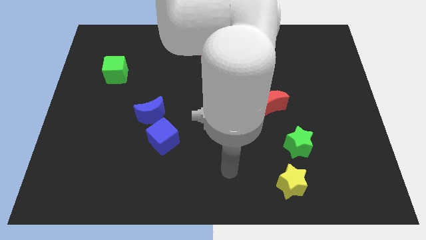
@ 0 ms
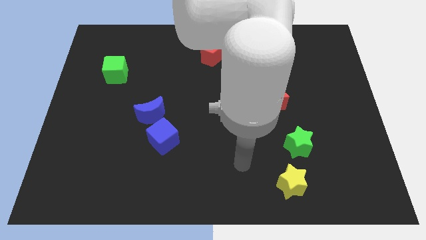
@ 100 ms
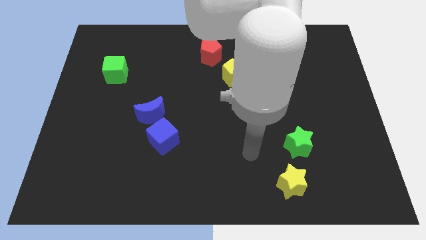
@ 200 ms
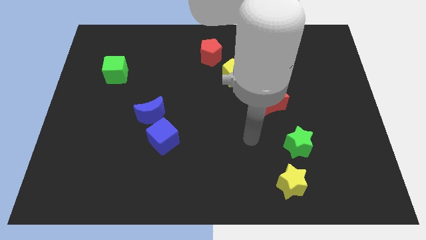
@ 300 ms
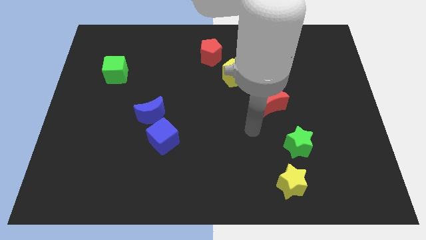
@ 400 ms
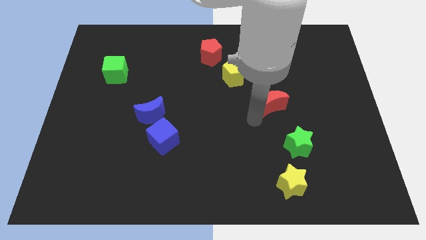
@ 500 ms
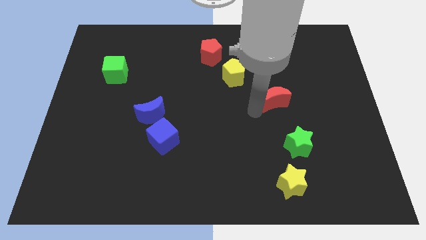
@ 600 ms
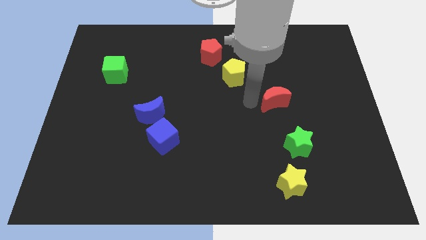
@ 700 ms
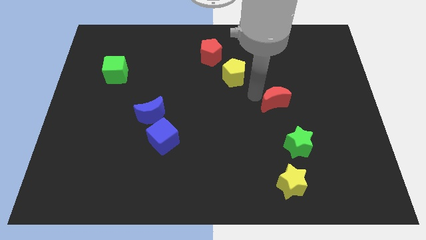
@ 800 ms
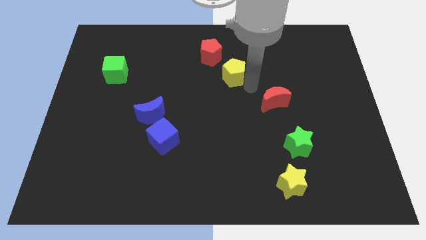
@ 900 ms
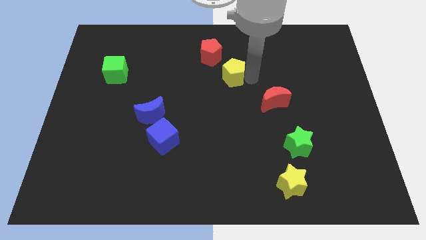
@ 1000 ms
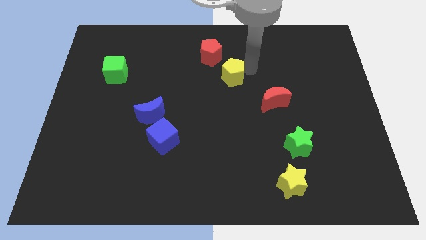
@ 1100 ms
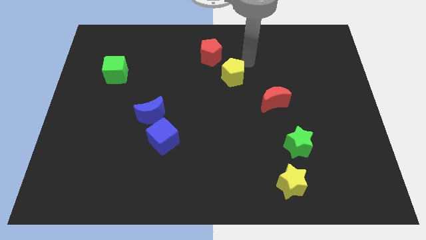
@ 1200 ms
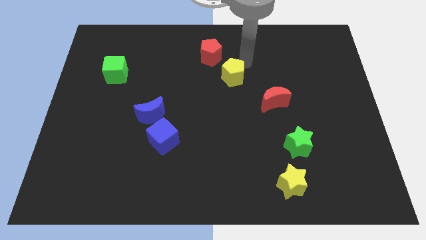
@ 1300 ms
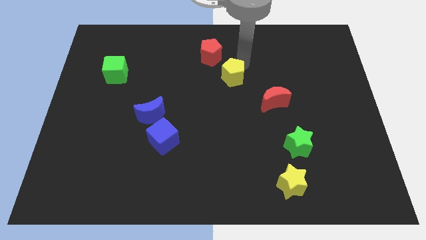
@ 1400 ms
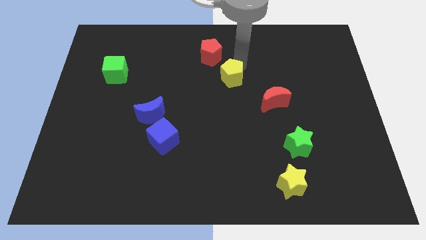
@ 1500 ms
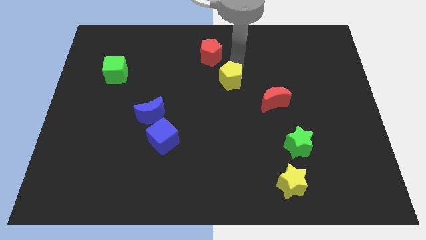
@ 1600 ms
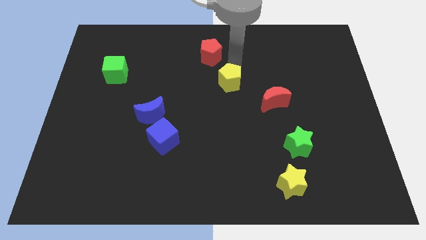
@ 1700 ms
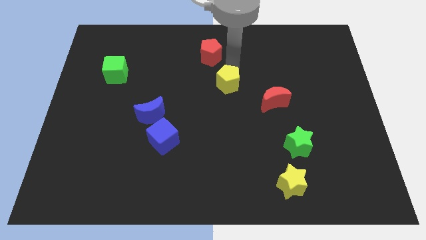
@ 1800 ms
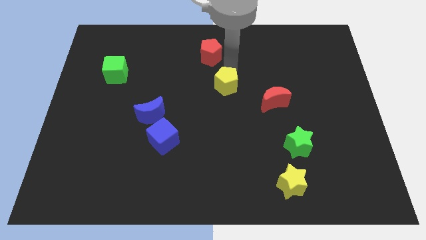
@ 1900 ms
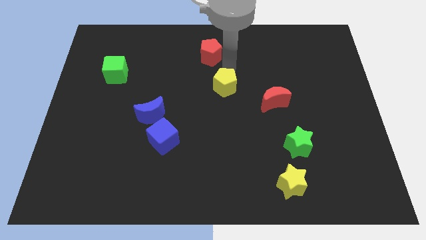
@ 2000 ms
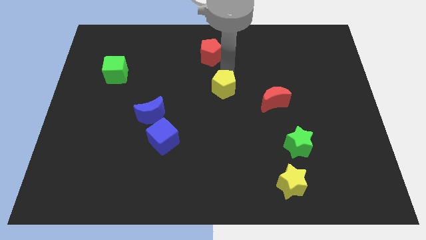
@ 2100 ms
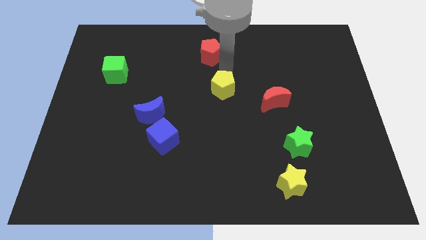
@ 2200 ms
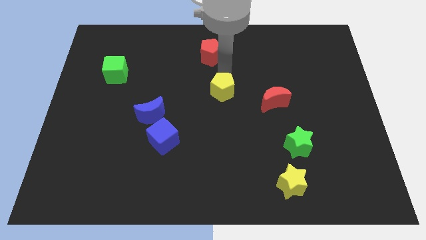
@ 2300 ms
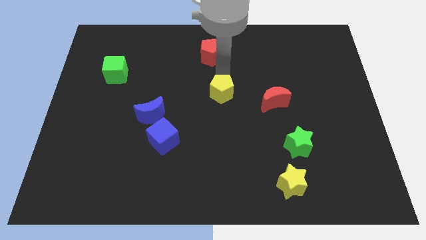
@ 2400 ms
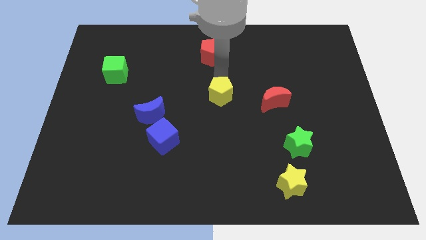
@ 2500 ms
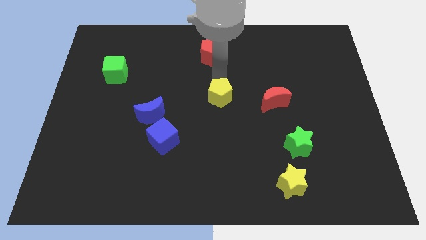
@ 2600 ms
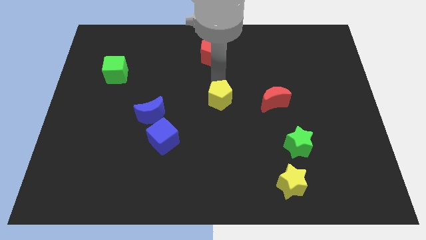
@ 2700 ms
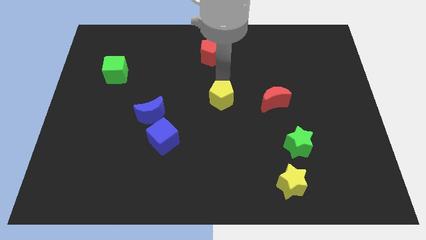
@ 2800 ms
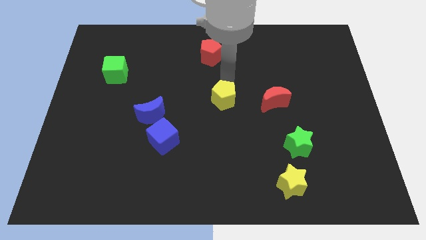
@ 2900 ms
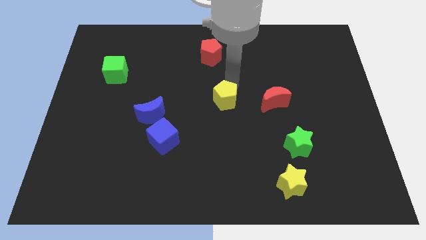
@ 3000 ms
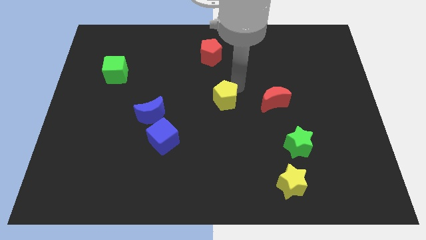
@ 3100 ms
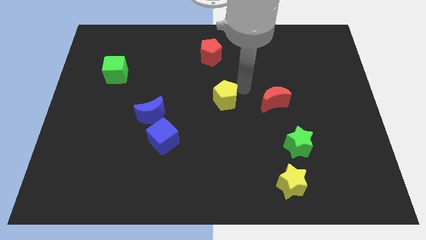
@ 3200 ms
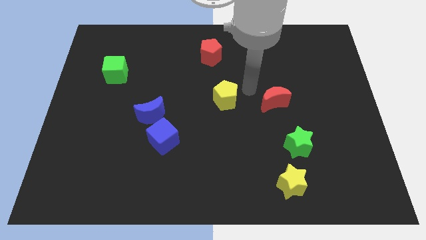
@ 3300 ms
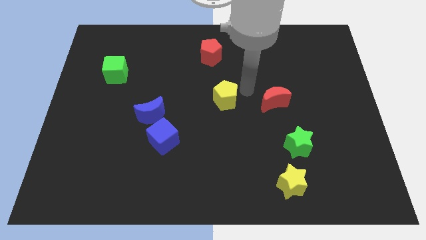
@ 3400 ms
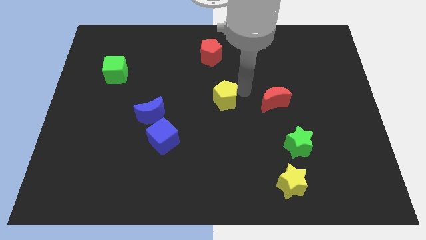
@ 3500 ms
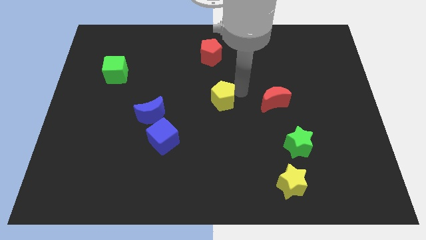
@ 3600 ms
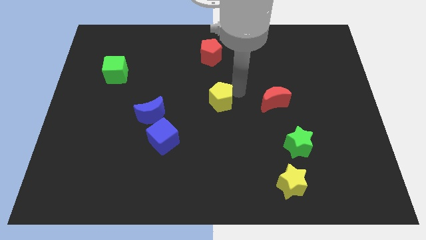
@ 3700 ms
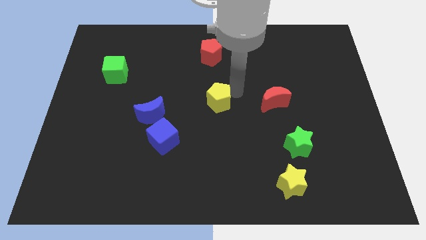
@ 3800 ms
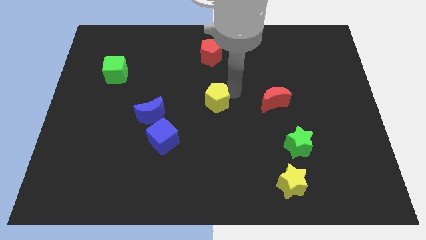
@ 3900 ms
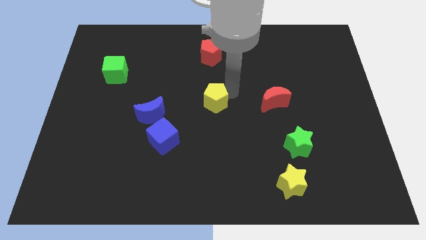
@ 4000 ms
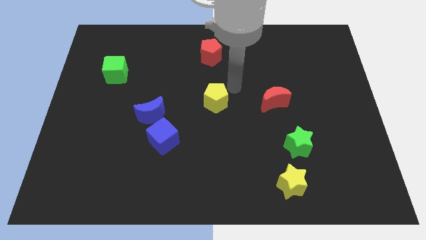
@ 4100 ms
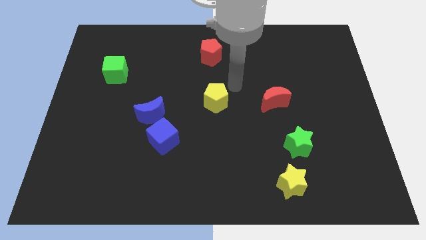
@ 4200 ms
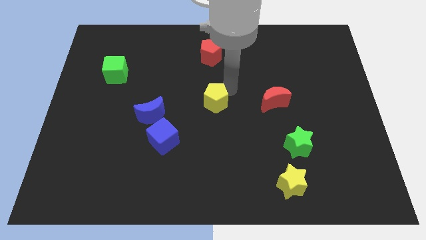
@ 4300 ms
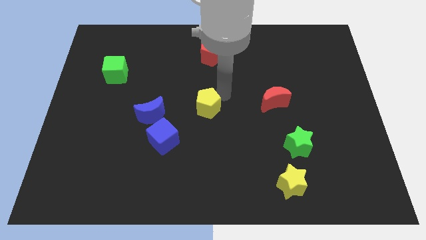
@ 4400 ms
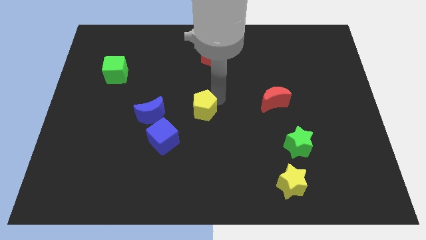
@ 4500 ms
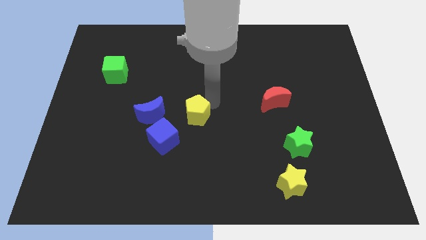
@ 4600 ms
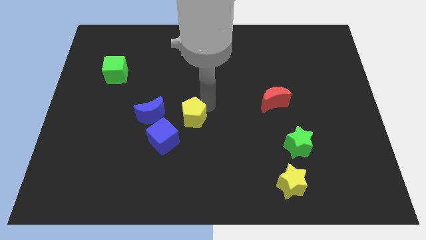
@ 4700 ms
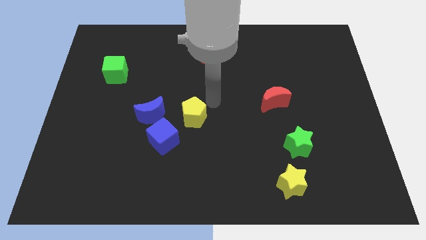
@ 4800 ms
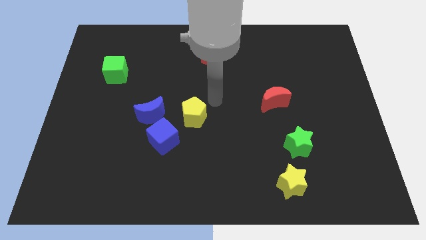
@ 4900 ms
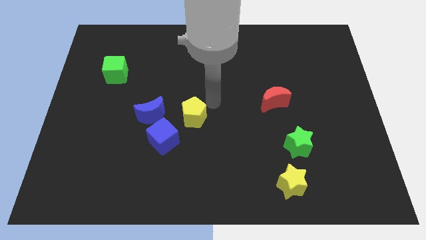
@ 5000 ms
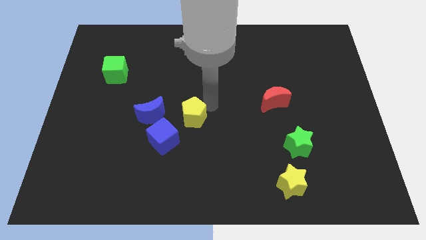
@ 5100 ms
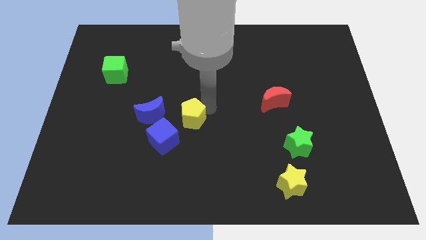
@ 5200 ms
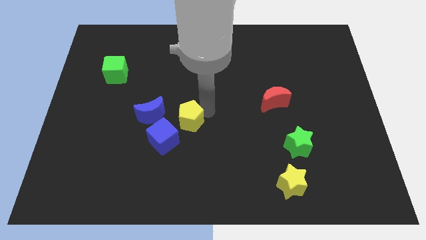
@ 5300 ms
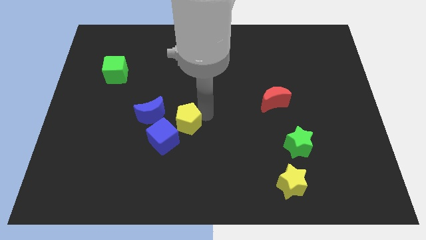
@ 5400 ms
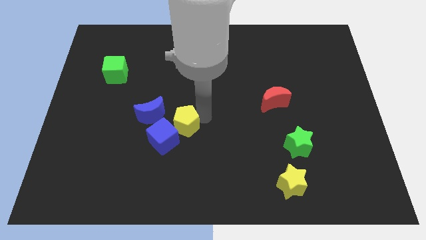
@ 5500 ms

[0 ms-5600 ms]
push the yellow pentagon close to the blue cube

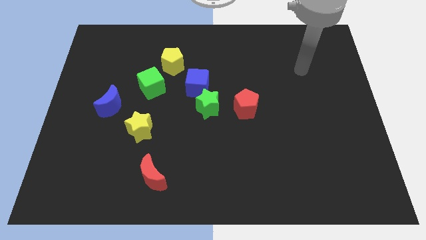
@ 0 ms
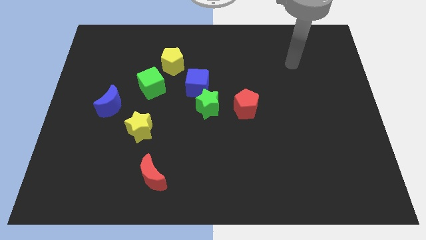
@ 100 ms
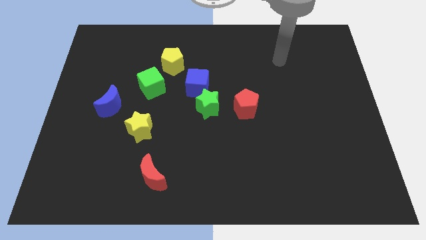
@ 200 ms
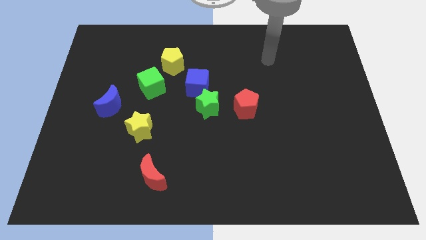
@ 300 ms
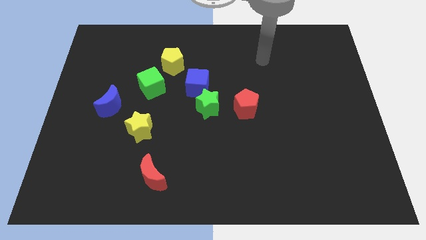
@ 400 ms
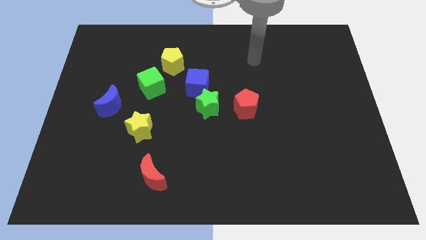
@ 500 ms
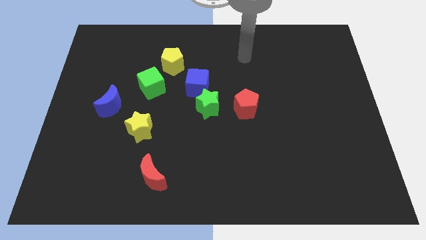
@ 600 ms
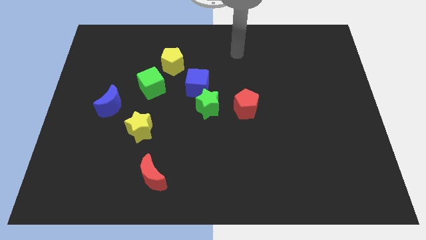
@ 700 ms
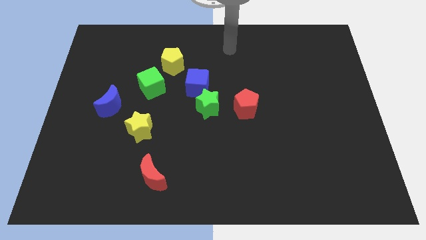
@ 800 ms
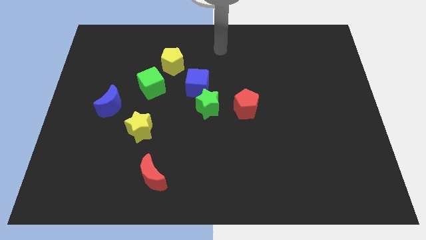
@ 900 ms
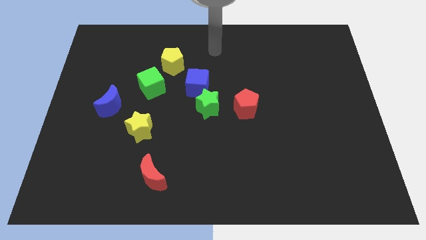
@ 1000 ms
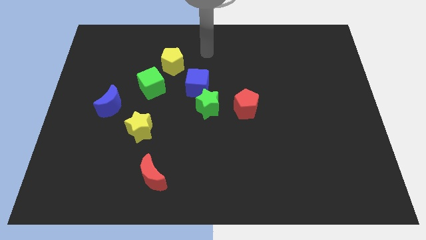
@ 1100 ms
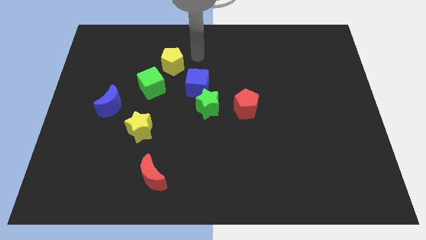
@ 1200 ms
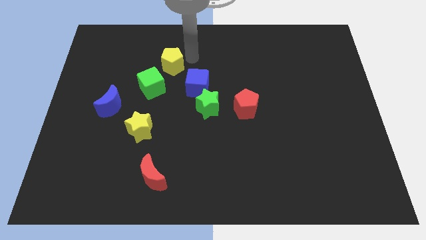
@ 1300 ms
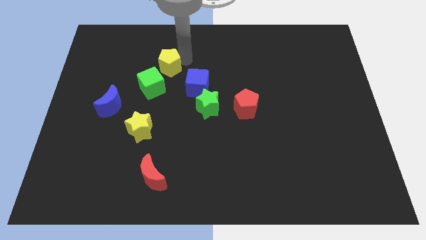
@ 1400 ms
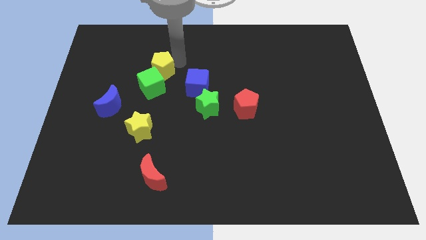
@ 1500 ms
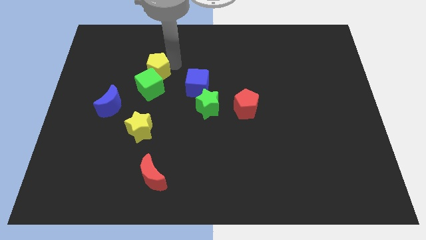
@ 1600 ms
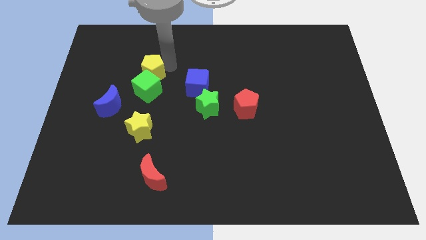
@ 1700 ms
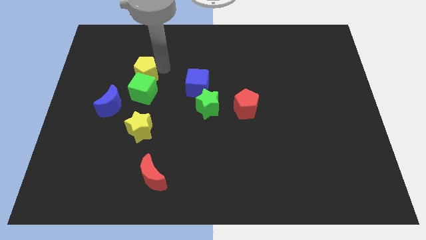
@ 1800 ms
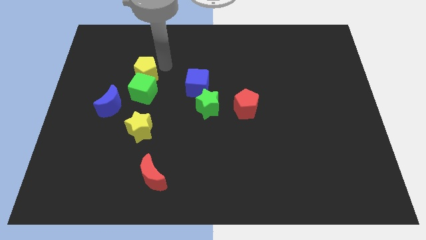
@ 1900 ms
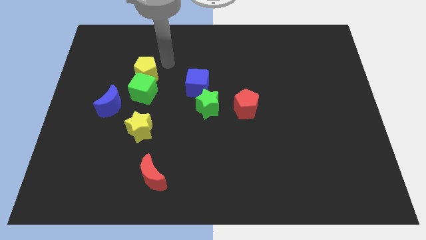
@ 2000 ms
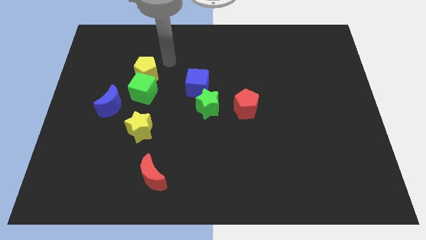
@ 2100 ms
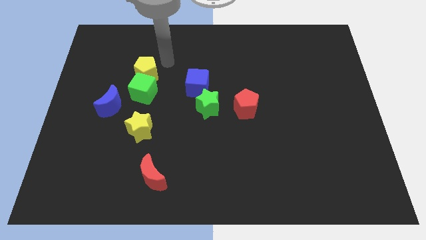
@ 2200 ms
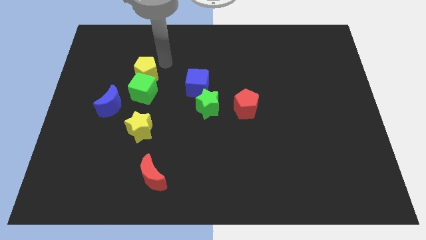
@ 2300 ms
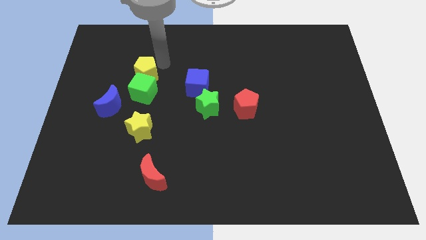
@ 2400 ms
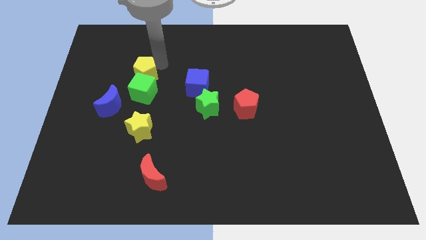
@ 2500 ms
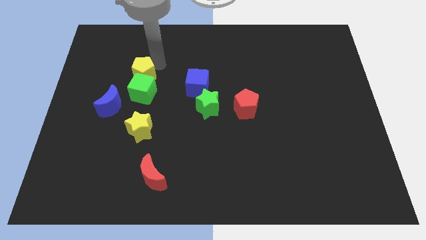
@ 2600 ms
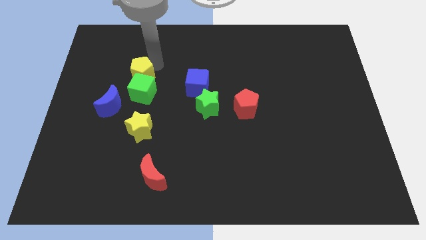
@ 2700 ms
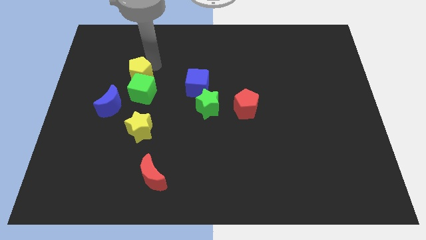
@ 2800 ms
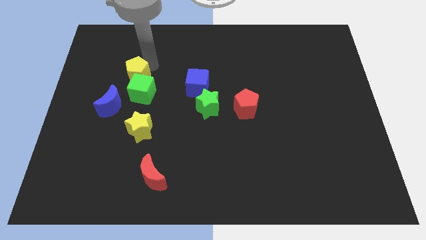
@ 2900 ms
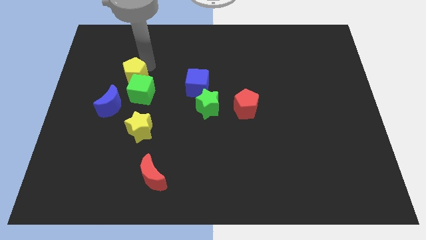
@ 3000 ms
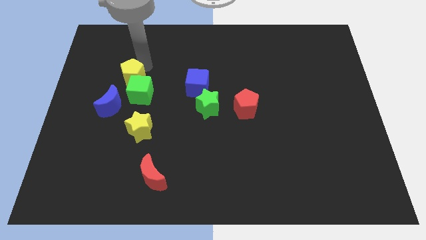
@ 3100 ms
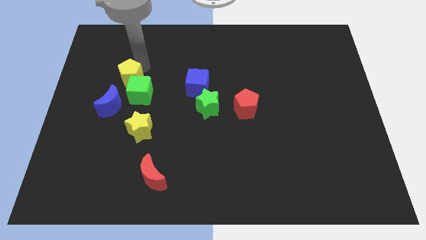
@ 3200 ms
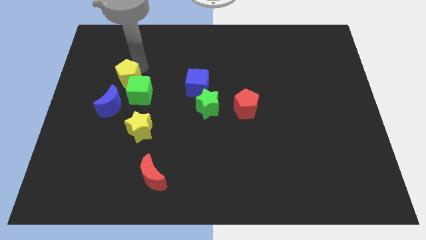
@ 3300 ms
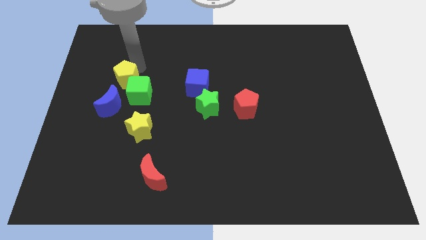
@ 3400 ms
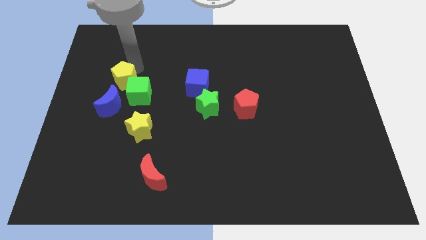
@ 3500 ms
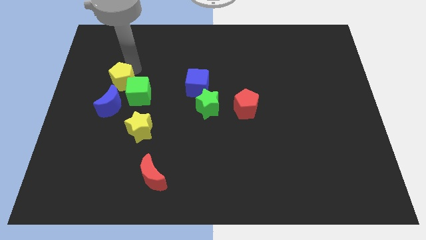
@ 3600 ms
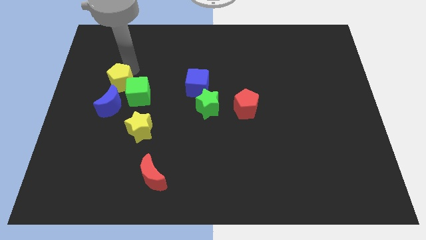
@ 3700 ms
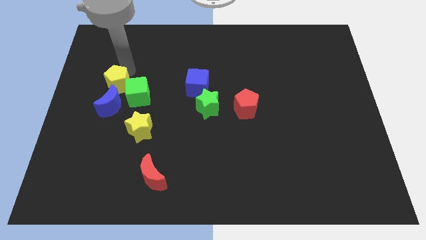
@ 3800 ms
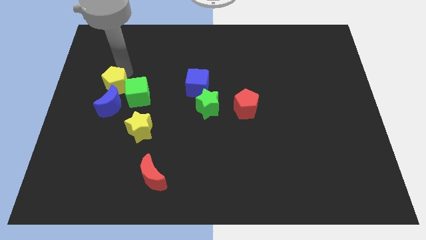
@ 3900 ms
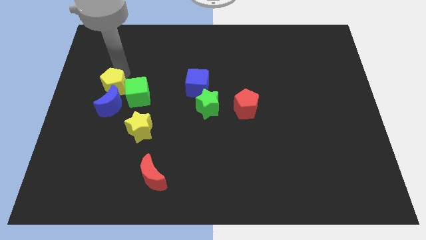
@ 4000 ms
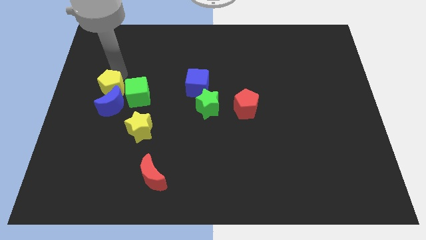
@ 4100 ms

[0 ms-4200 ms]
put the yellow pentagon next to the blue moon
